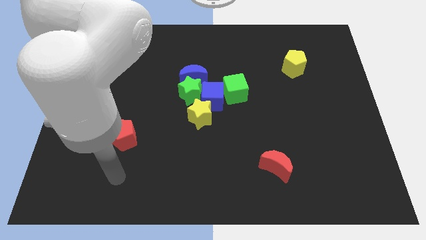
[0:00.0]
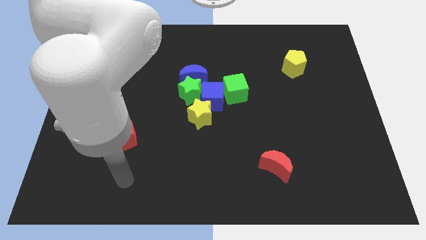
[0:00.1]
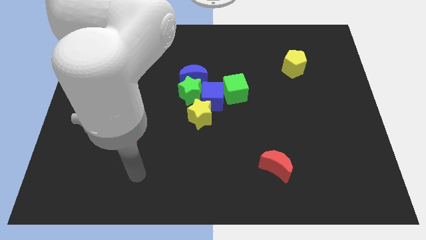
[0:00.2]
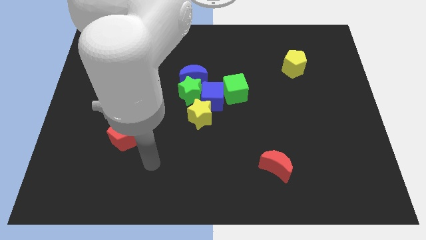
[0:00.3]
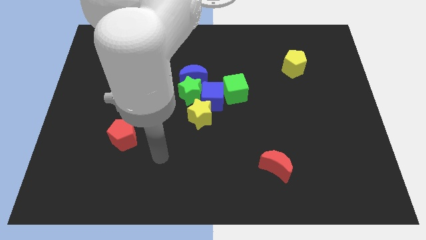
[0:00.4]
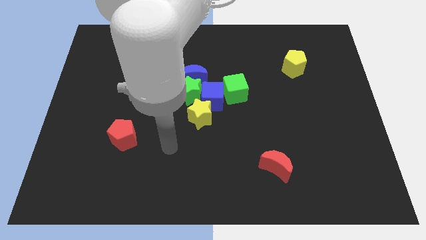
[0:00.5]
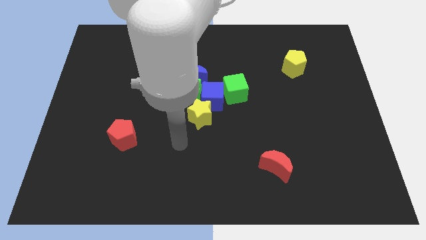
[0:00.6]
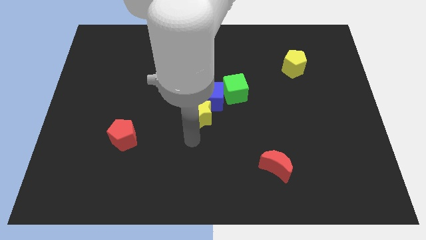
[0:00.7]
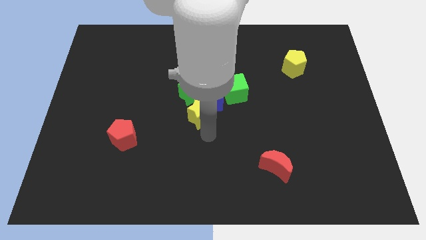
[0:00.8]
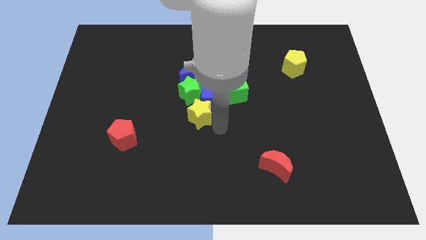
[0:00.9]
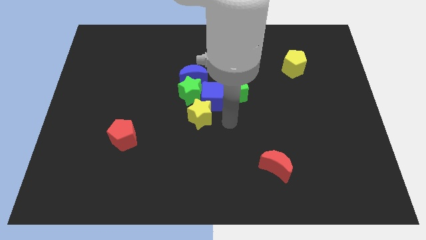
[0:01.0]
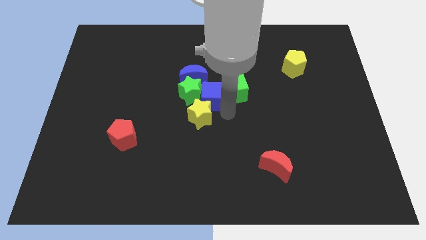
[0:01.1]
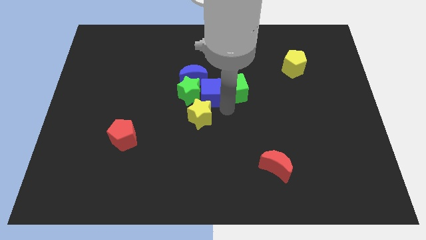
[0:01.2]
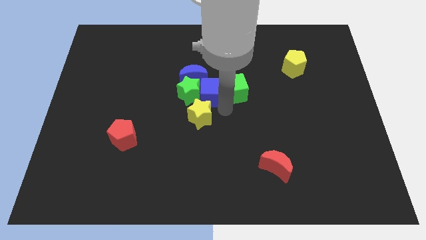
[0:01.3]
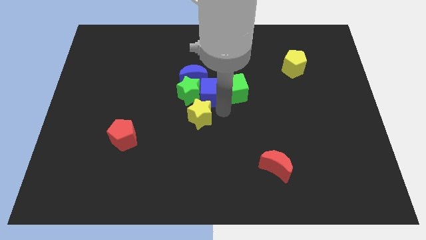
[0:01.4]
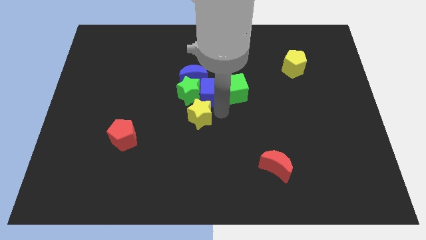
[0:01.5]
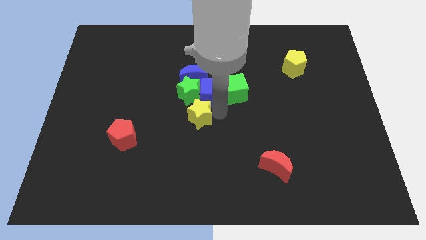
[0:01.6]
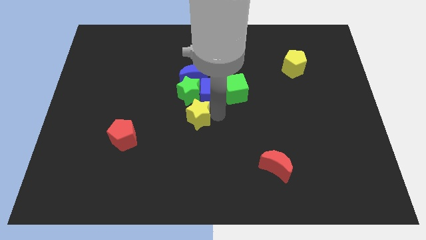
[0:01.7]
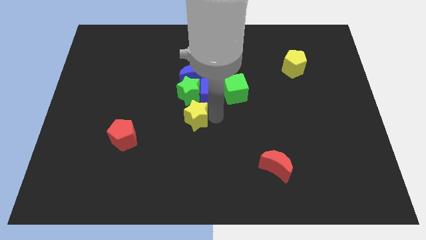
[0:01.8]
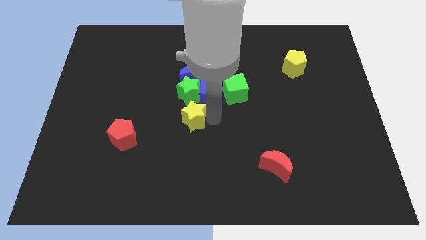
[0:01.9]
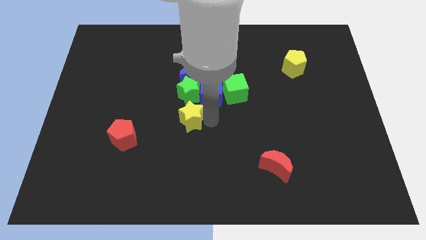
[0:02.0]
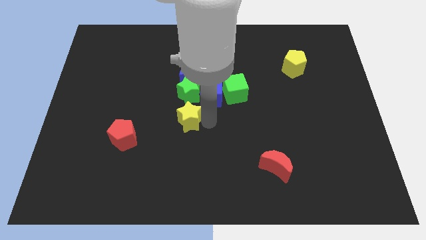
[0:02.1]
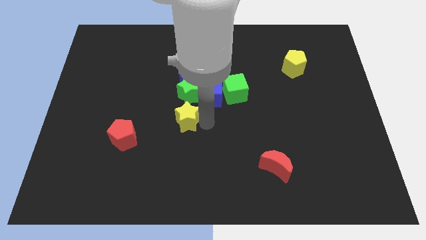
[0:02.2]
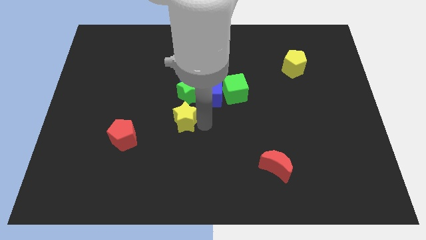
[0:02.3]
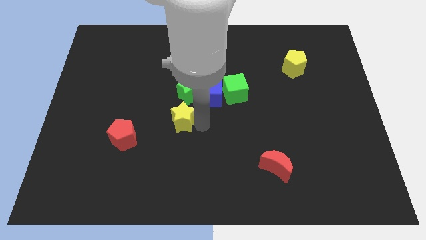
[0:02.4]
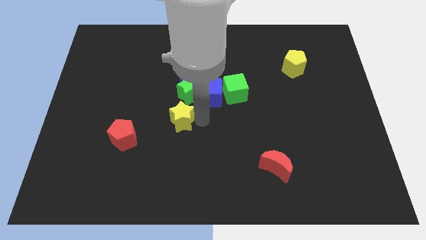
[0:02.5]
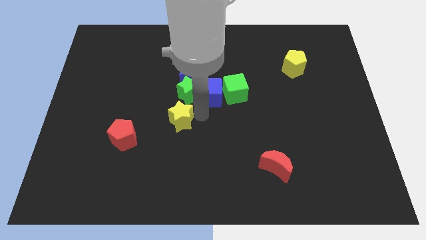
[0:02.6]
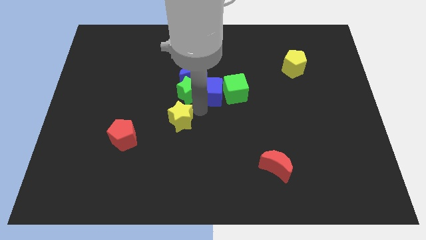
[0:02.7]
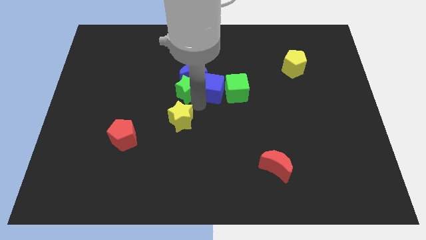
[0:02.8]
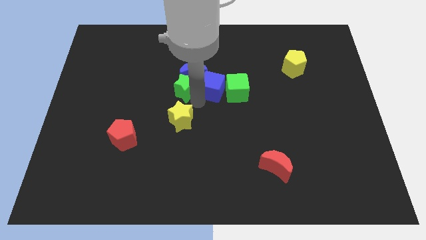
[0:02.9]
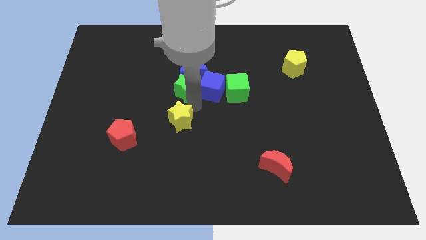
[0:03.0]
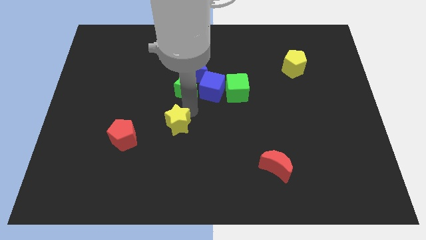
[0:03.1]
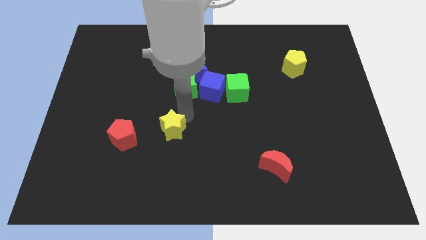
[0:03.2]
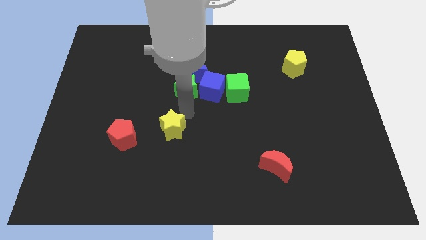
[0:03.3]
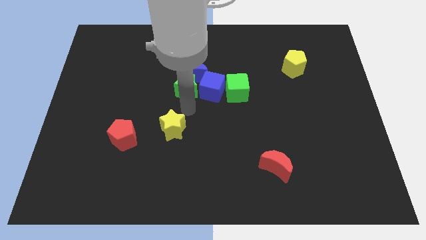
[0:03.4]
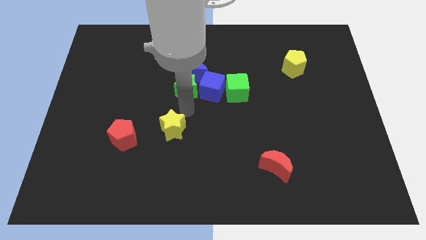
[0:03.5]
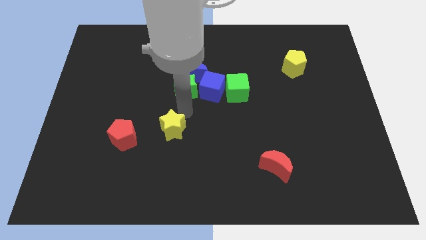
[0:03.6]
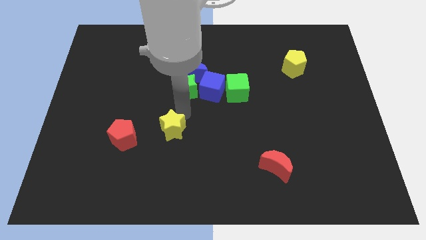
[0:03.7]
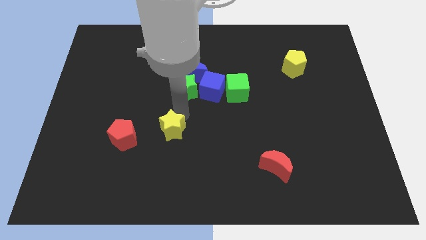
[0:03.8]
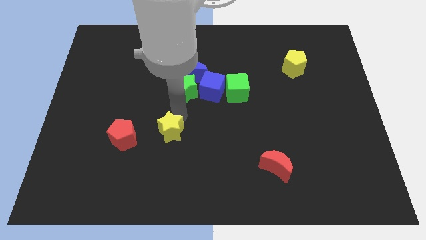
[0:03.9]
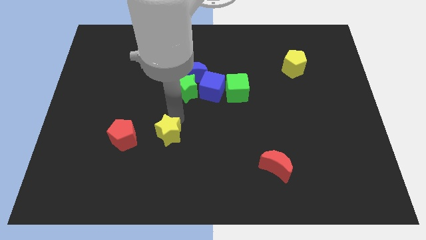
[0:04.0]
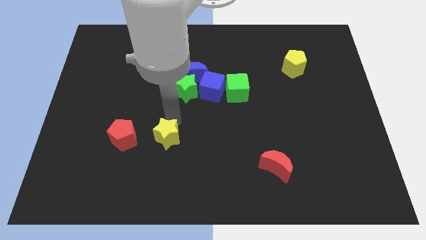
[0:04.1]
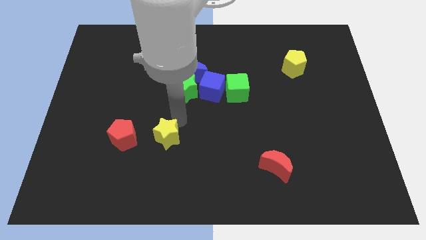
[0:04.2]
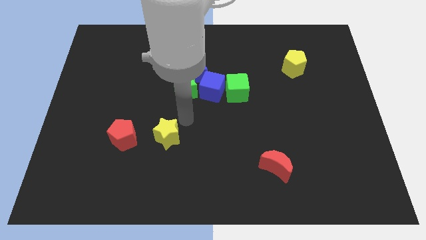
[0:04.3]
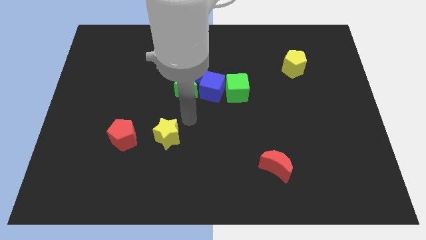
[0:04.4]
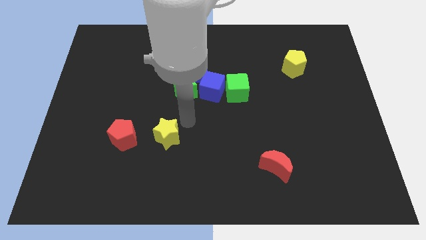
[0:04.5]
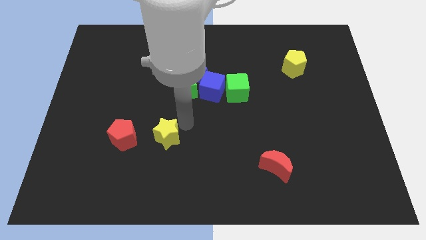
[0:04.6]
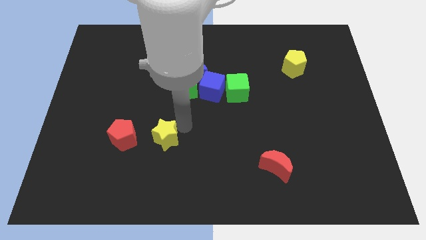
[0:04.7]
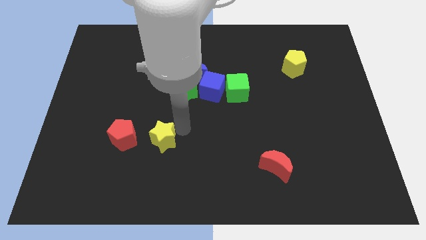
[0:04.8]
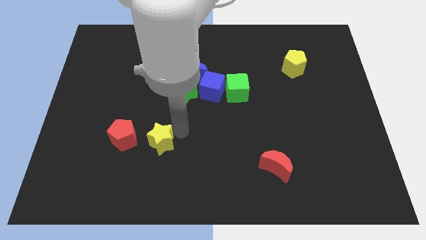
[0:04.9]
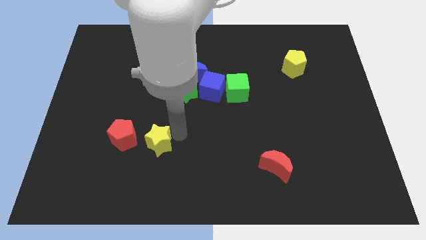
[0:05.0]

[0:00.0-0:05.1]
slide the yellow star diagonally down and to the right of the red pentagon

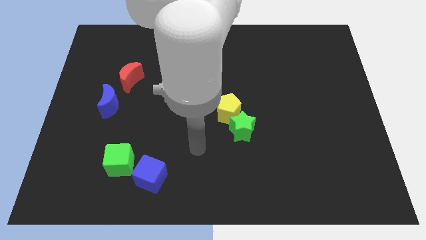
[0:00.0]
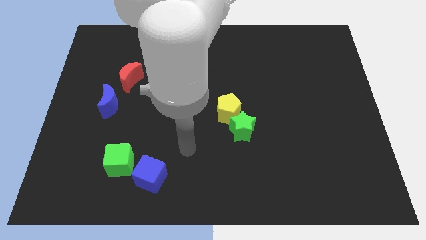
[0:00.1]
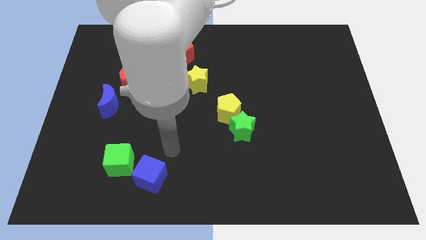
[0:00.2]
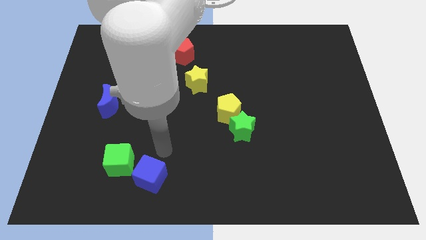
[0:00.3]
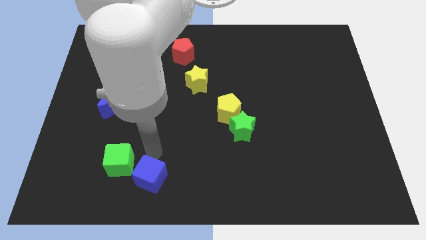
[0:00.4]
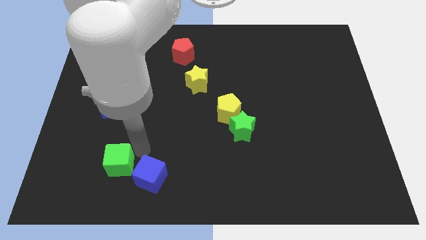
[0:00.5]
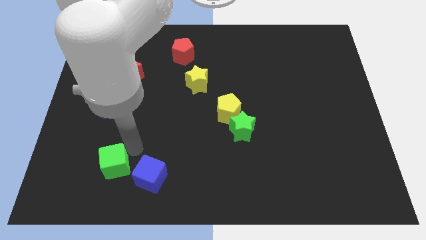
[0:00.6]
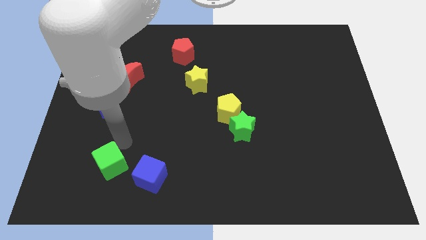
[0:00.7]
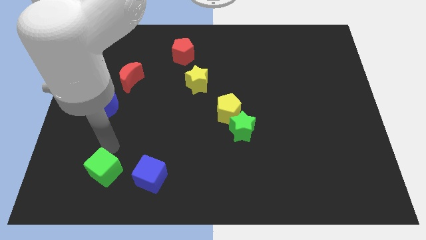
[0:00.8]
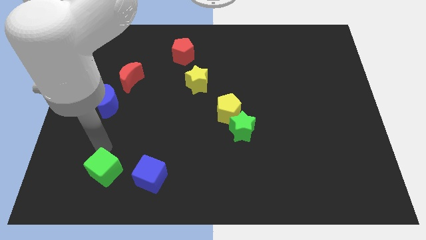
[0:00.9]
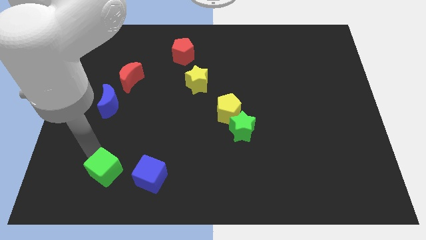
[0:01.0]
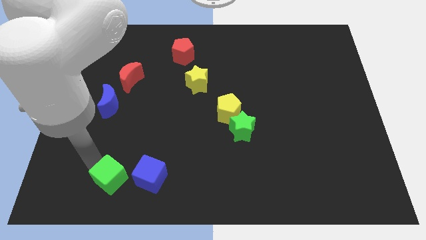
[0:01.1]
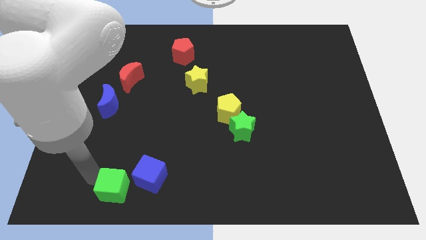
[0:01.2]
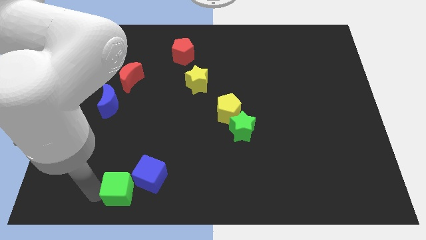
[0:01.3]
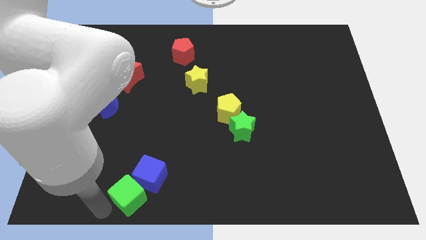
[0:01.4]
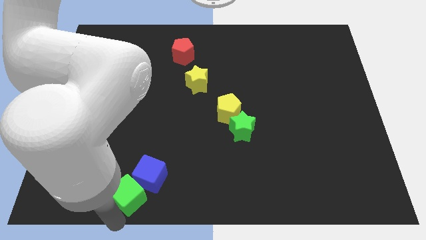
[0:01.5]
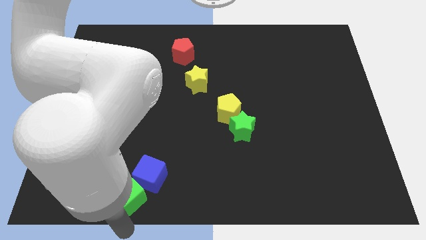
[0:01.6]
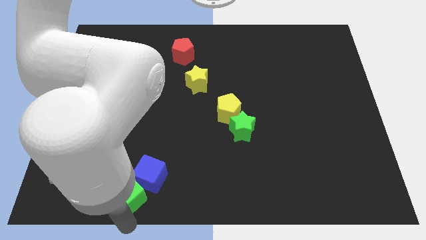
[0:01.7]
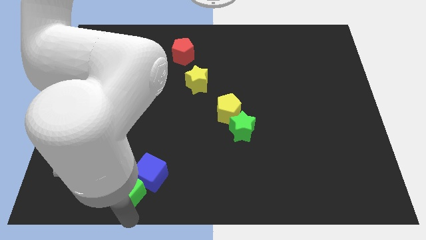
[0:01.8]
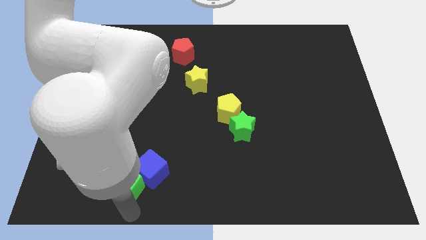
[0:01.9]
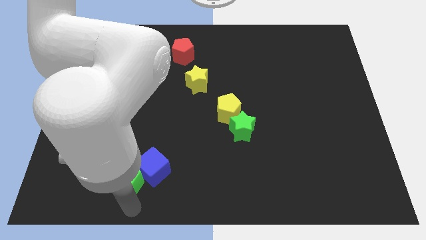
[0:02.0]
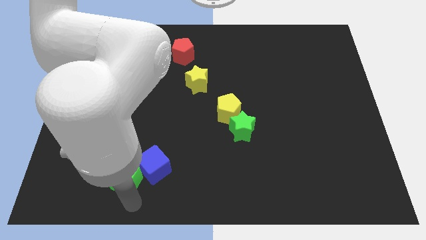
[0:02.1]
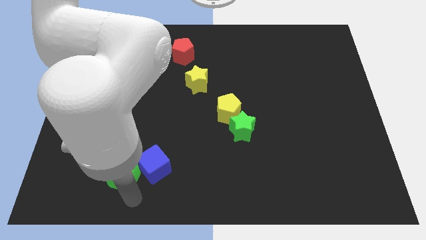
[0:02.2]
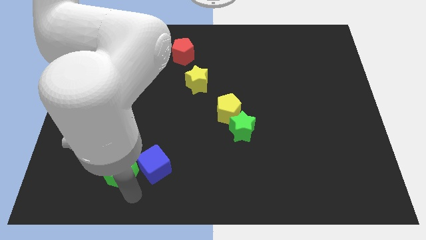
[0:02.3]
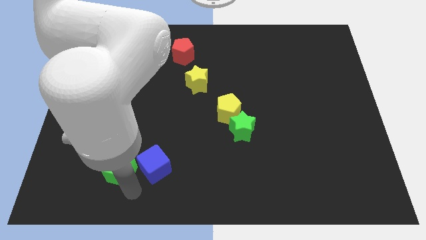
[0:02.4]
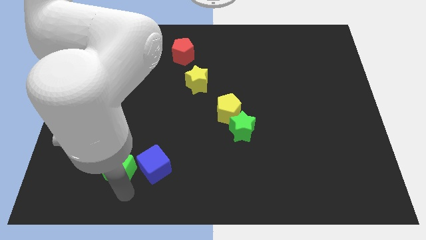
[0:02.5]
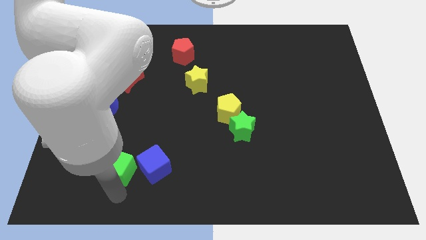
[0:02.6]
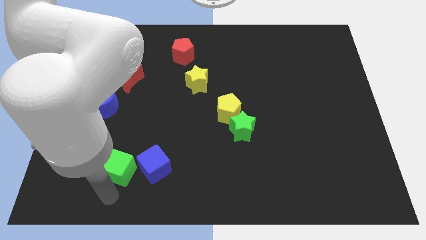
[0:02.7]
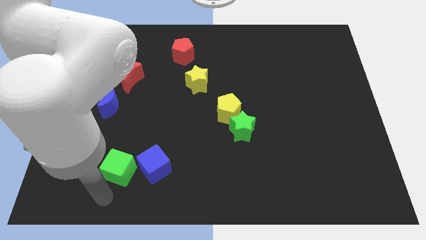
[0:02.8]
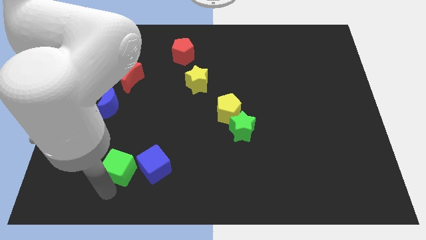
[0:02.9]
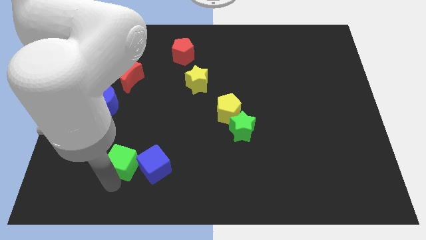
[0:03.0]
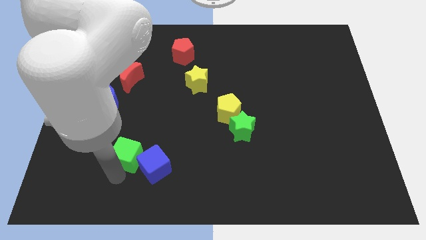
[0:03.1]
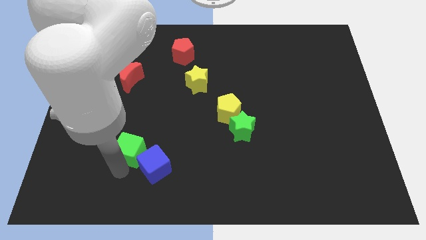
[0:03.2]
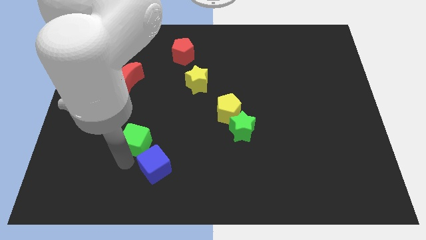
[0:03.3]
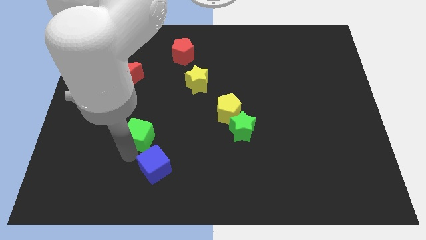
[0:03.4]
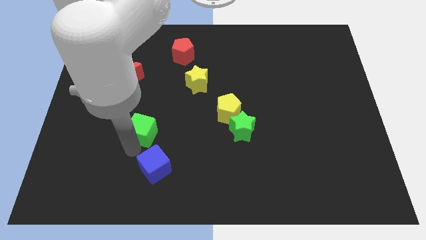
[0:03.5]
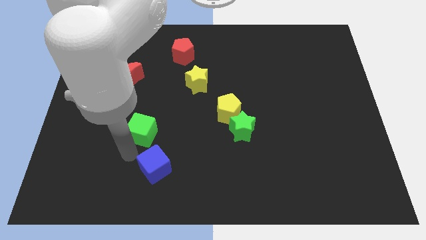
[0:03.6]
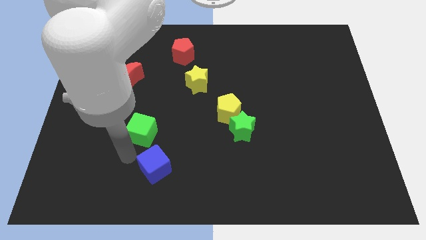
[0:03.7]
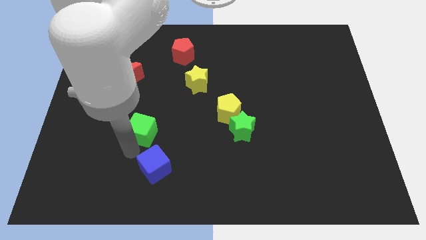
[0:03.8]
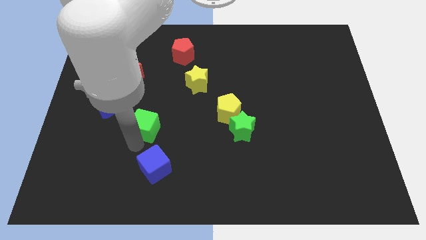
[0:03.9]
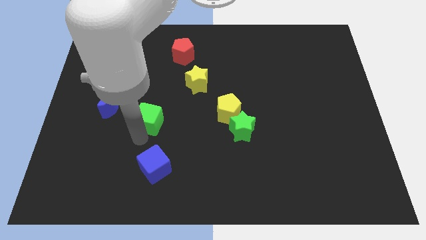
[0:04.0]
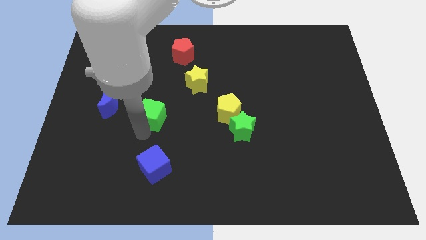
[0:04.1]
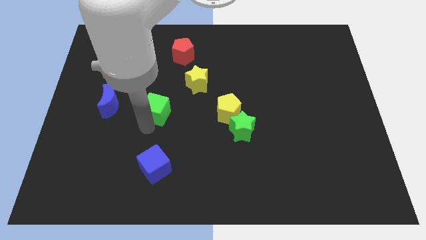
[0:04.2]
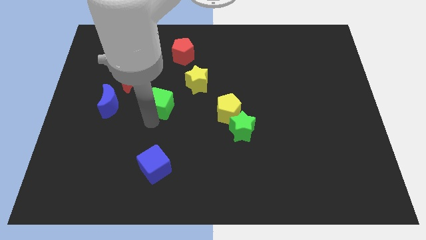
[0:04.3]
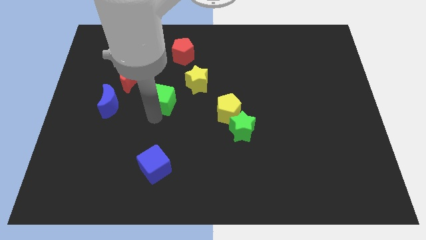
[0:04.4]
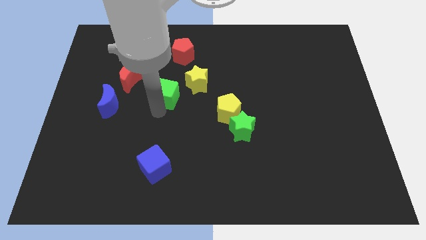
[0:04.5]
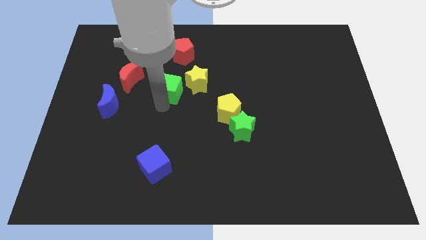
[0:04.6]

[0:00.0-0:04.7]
push the green cube to the right of the red moon
